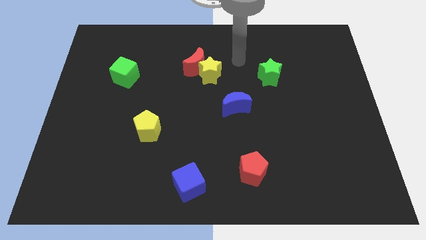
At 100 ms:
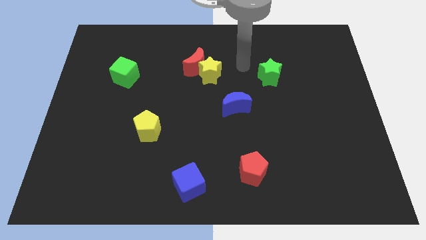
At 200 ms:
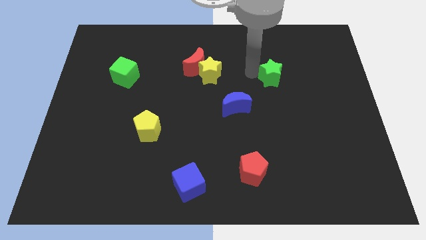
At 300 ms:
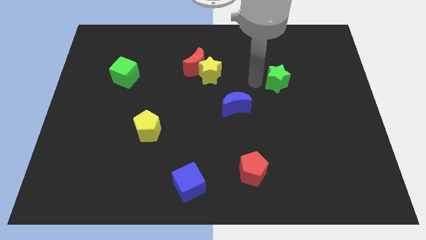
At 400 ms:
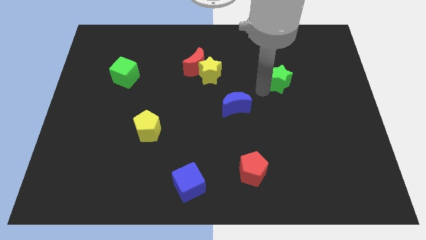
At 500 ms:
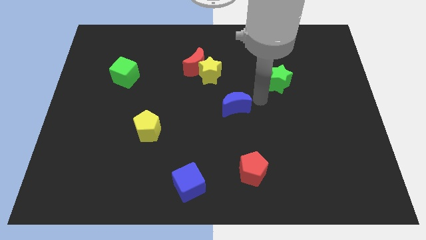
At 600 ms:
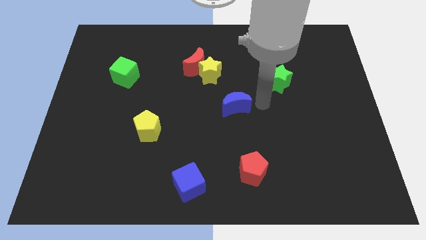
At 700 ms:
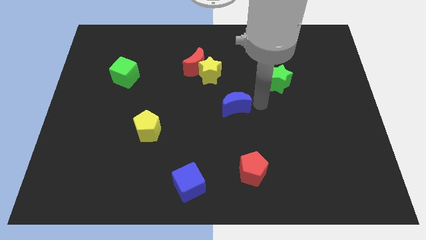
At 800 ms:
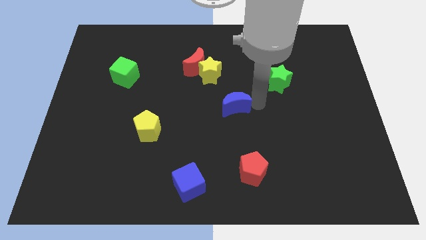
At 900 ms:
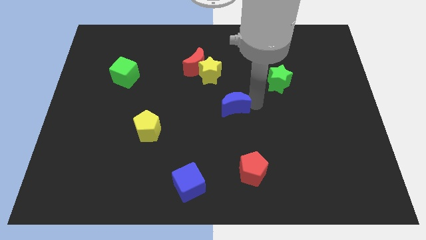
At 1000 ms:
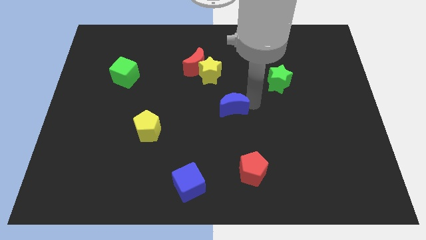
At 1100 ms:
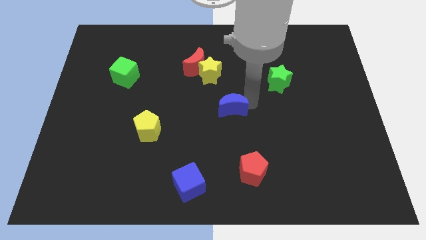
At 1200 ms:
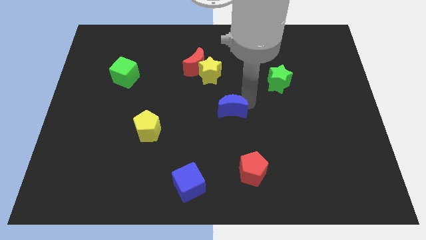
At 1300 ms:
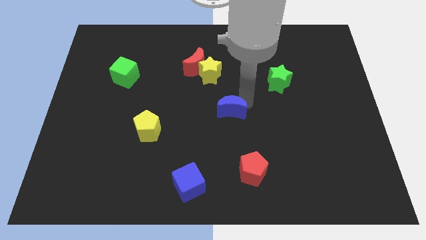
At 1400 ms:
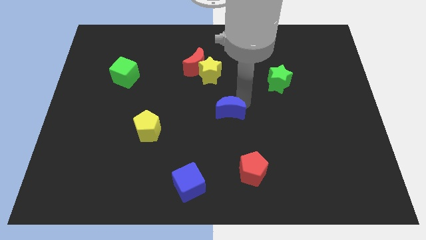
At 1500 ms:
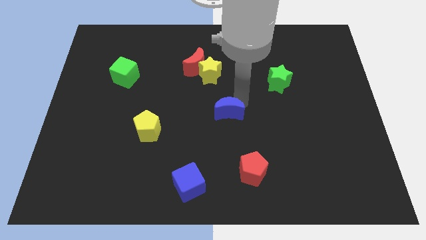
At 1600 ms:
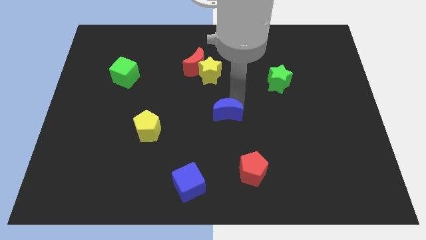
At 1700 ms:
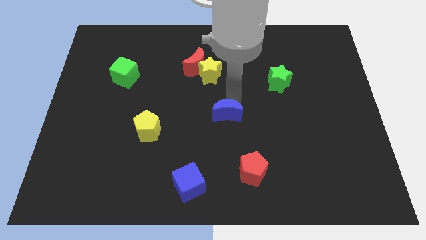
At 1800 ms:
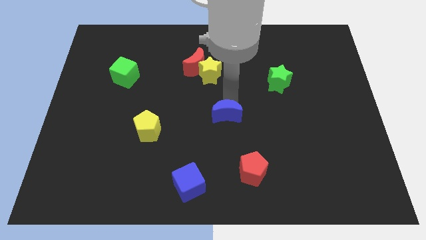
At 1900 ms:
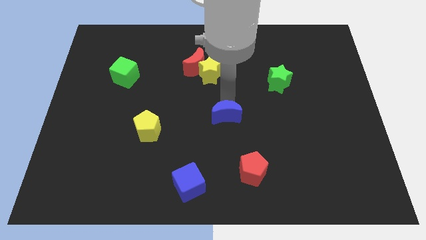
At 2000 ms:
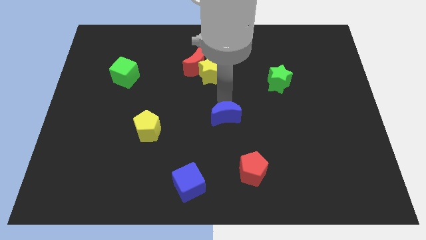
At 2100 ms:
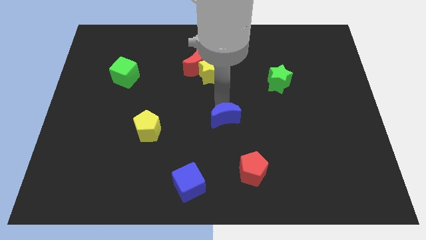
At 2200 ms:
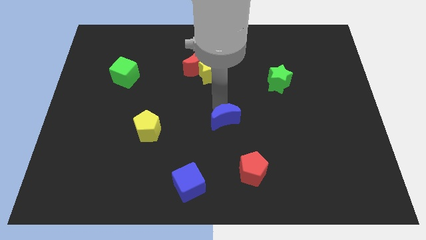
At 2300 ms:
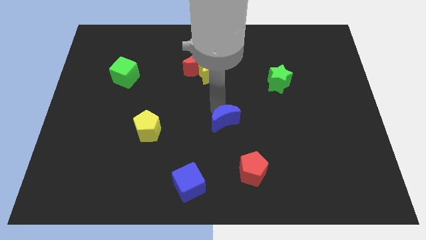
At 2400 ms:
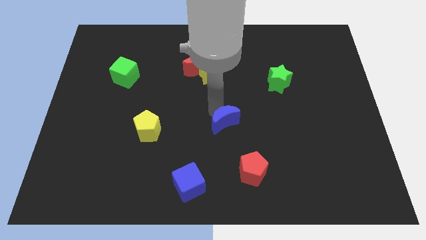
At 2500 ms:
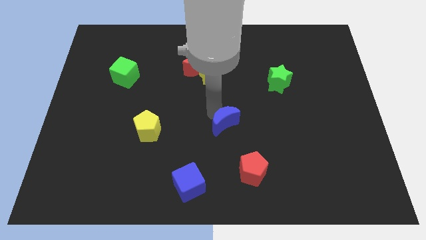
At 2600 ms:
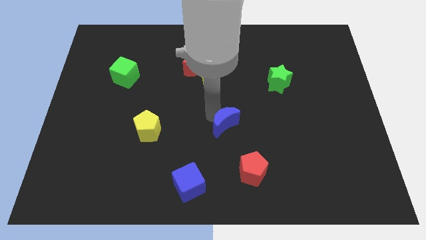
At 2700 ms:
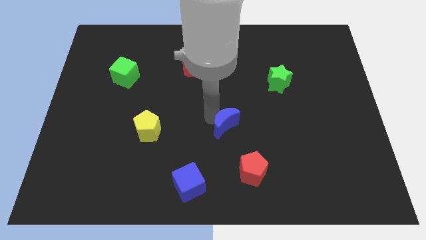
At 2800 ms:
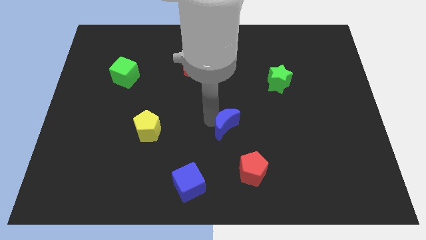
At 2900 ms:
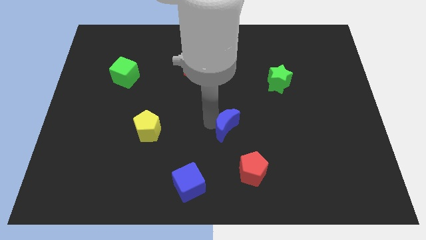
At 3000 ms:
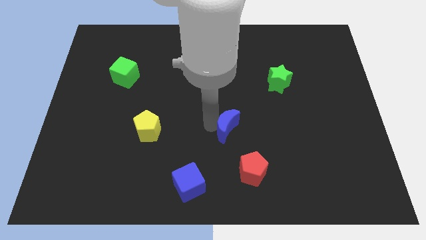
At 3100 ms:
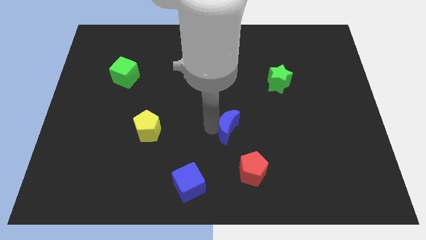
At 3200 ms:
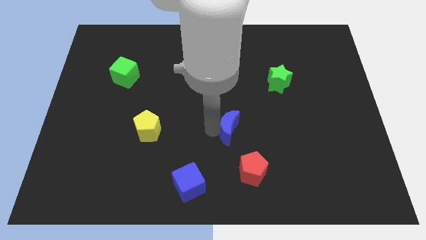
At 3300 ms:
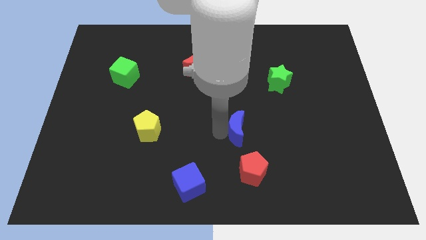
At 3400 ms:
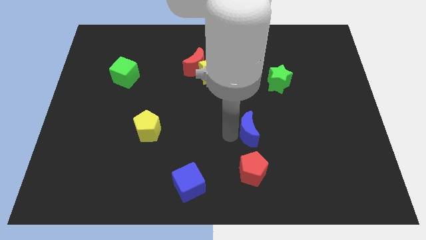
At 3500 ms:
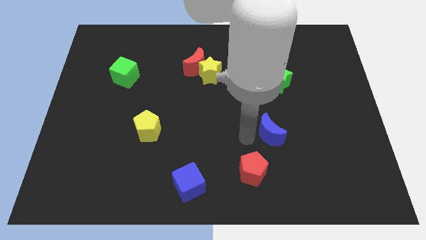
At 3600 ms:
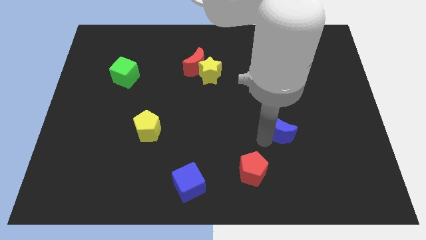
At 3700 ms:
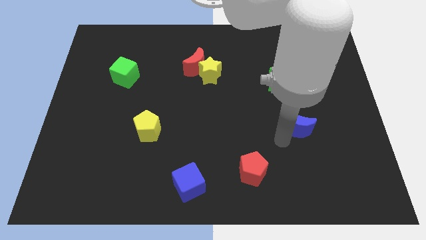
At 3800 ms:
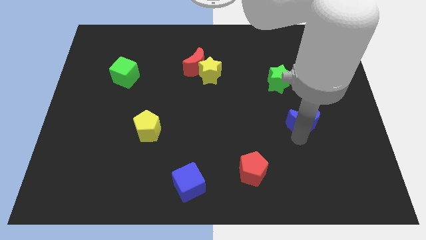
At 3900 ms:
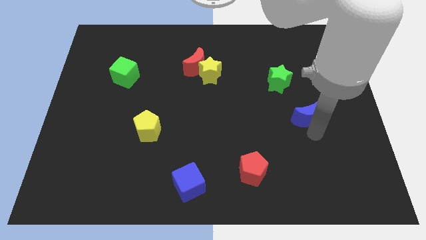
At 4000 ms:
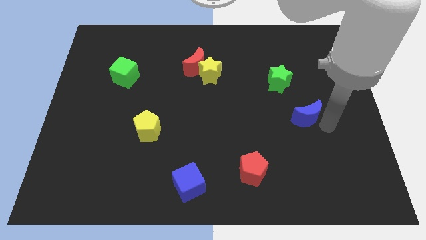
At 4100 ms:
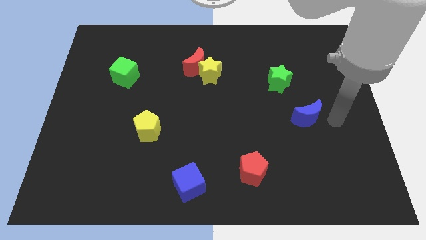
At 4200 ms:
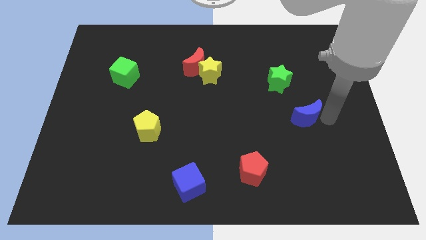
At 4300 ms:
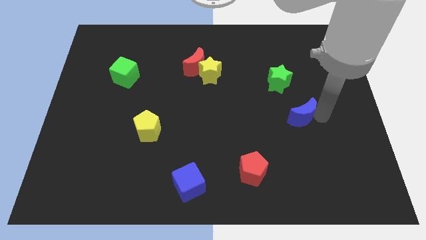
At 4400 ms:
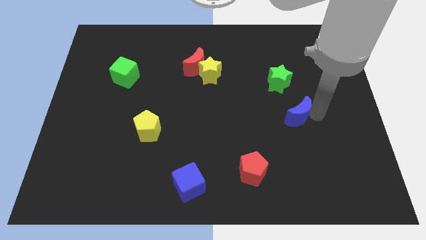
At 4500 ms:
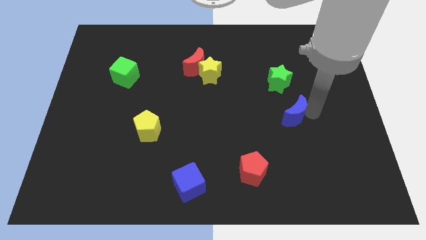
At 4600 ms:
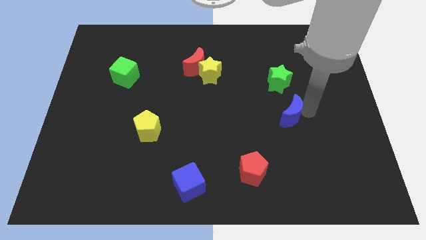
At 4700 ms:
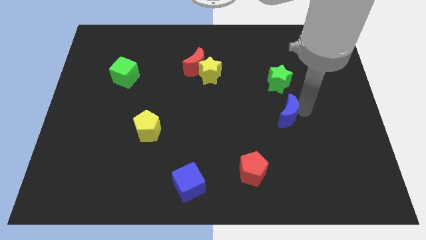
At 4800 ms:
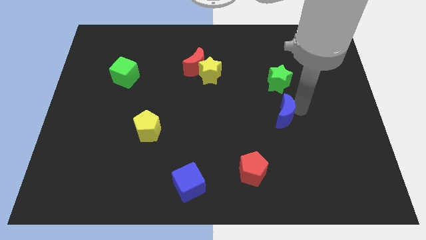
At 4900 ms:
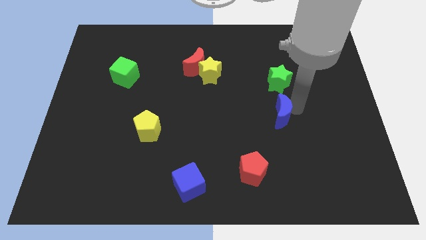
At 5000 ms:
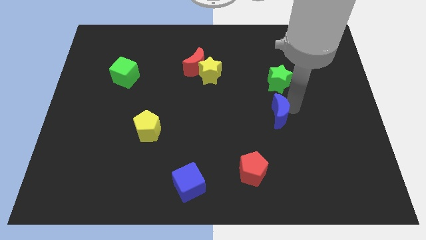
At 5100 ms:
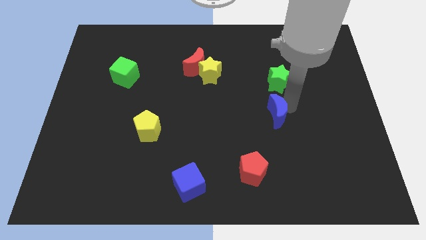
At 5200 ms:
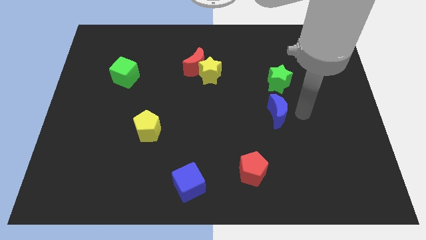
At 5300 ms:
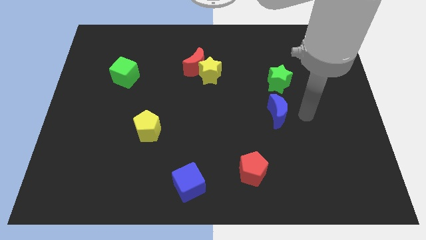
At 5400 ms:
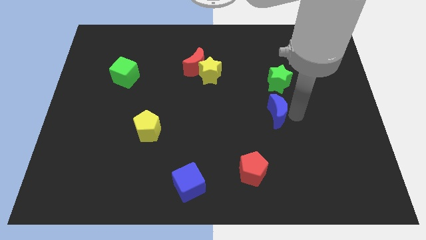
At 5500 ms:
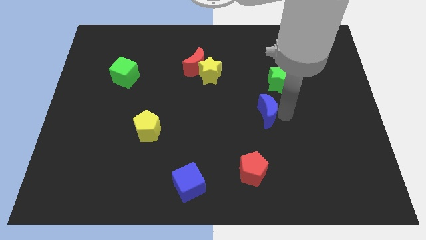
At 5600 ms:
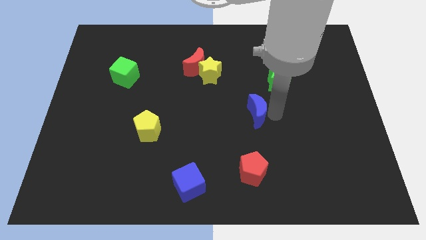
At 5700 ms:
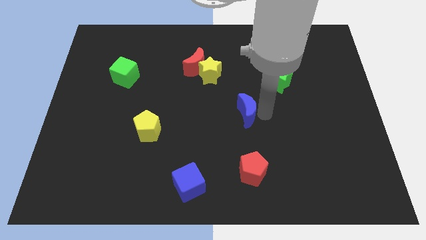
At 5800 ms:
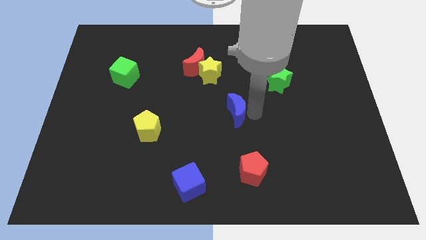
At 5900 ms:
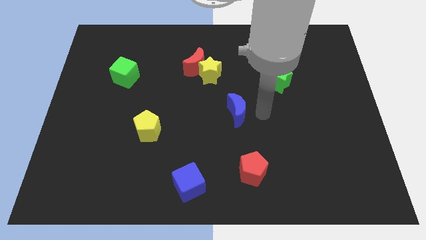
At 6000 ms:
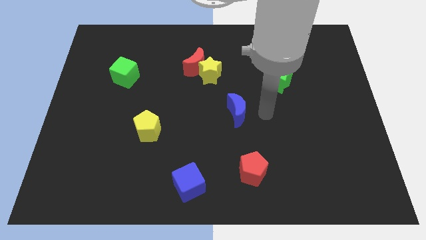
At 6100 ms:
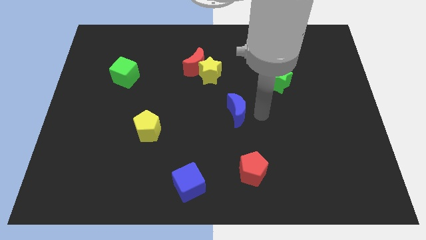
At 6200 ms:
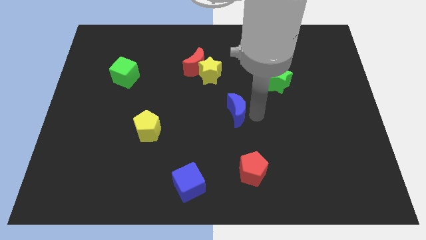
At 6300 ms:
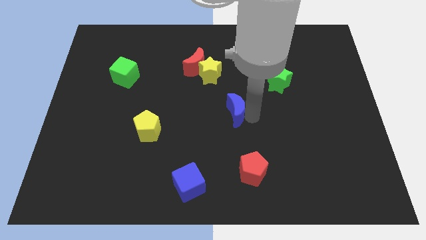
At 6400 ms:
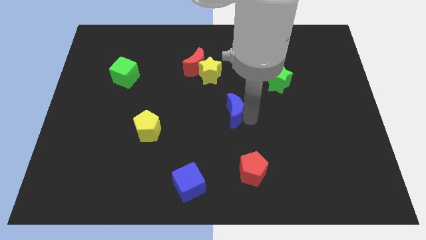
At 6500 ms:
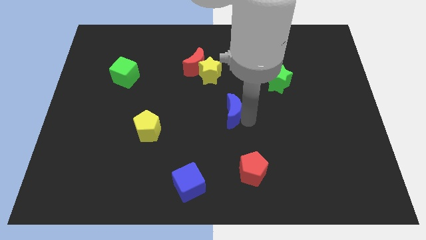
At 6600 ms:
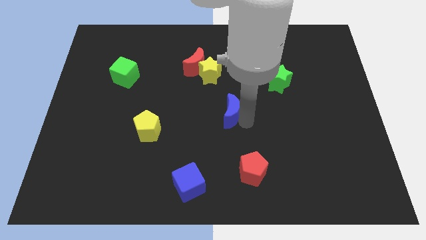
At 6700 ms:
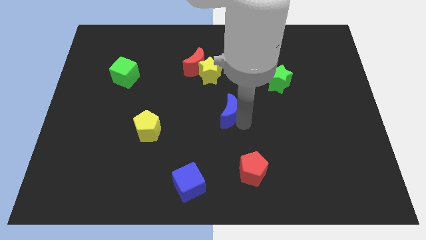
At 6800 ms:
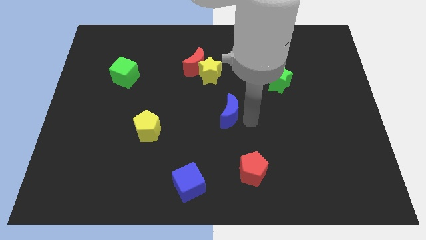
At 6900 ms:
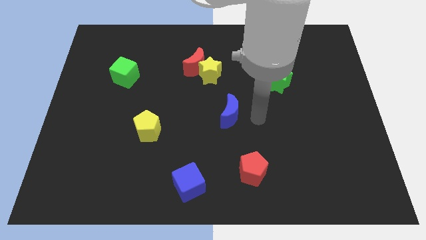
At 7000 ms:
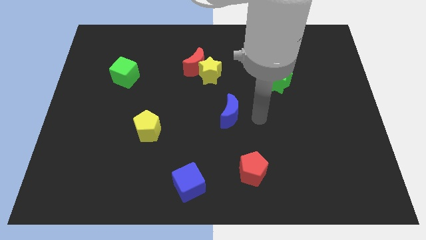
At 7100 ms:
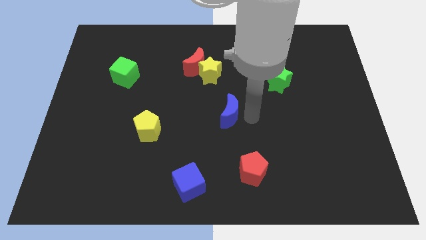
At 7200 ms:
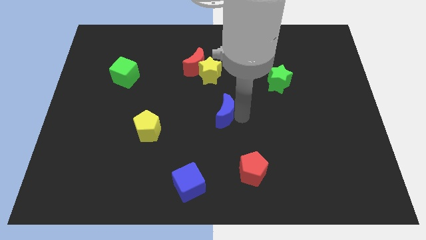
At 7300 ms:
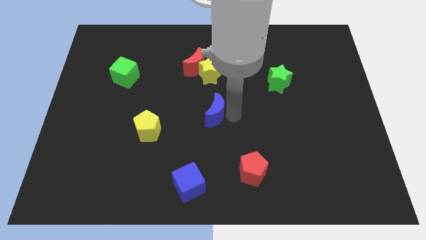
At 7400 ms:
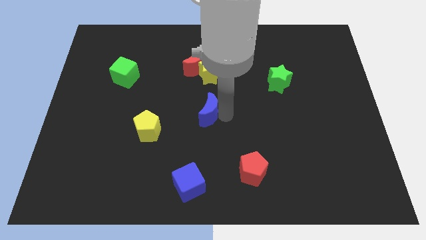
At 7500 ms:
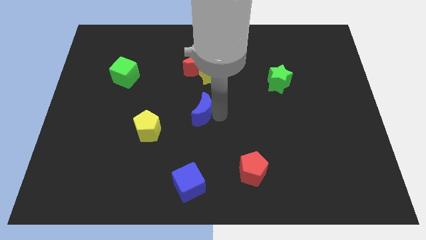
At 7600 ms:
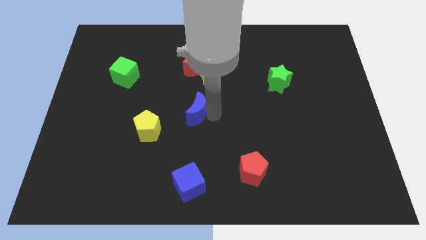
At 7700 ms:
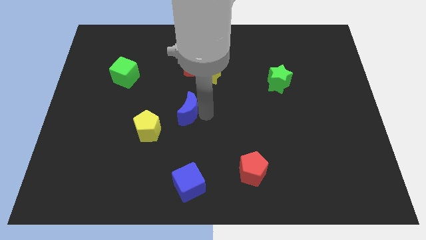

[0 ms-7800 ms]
put the blue moon to the top right side of the yellow pentagon
